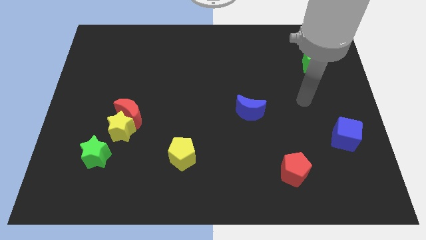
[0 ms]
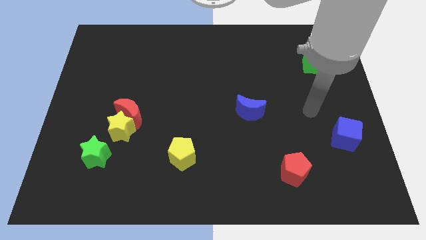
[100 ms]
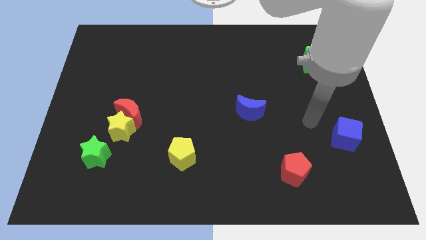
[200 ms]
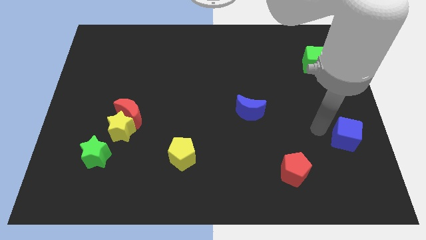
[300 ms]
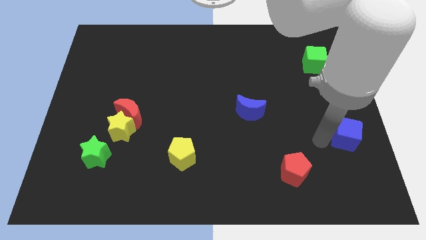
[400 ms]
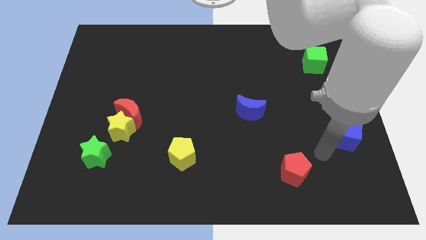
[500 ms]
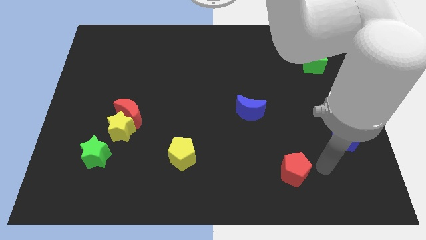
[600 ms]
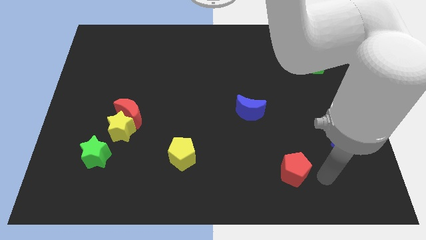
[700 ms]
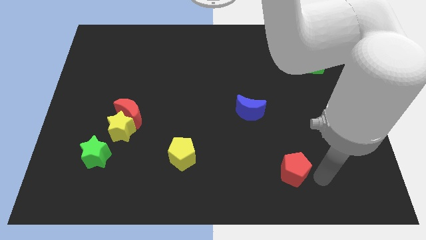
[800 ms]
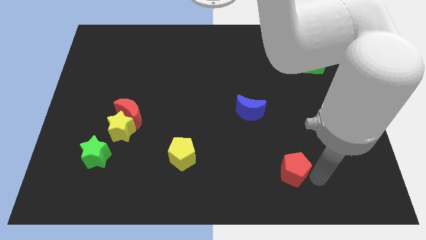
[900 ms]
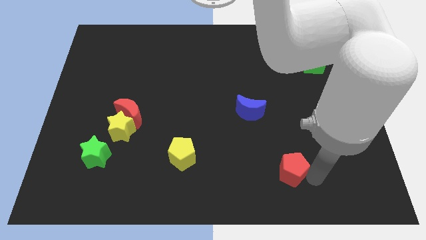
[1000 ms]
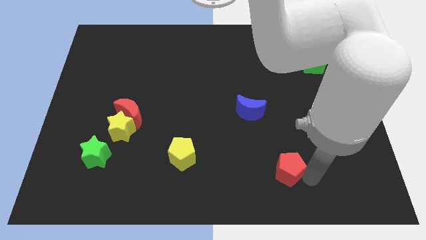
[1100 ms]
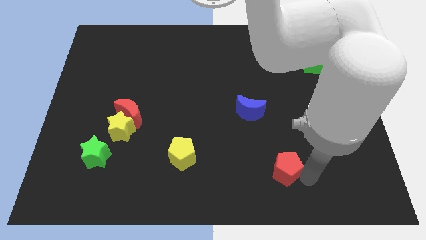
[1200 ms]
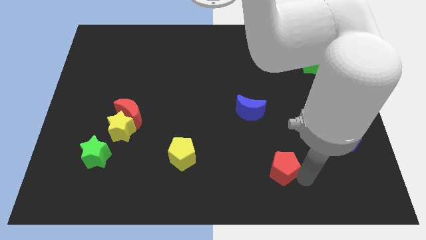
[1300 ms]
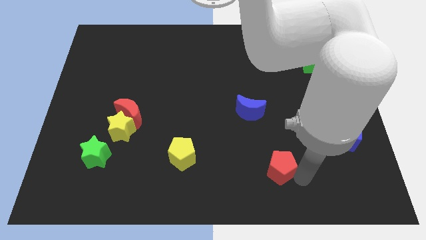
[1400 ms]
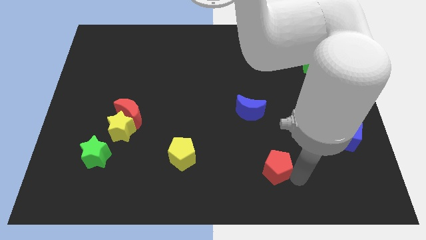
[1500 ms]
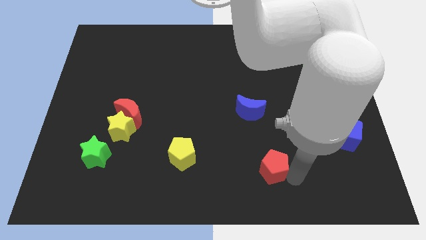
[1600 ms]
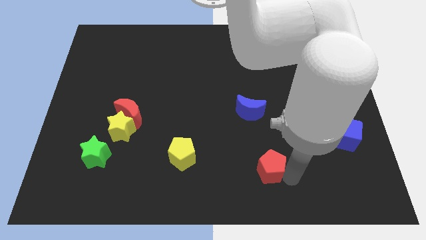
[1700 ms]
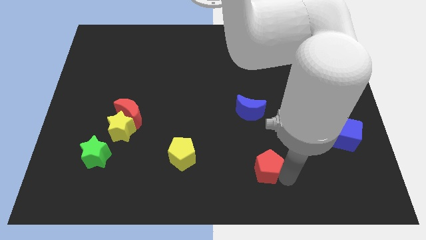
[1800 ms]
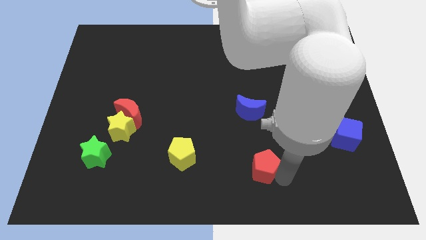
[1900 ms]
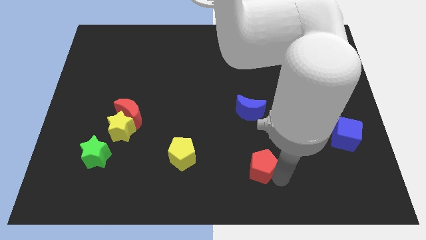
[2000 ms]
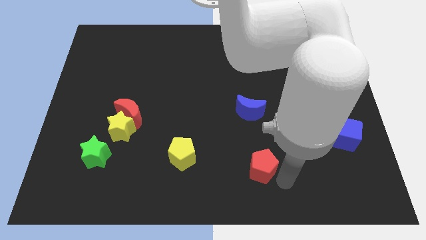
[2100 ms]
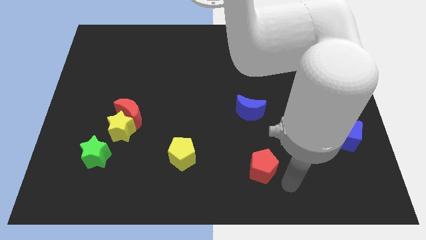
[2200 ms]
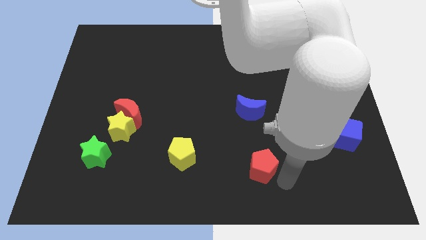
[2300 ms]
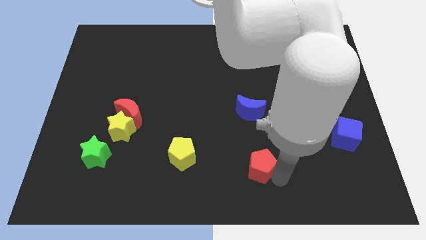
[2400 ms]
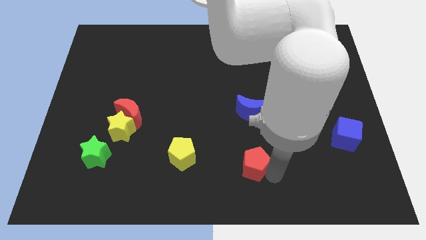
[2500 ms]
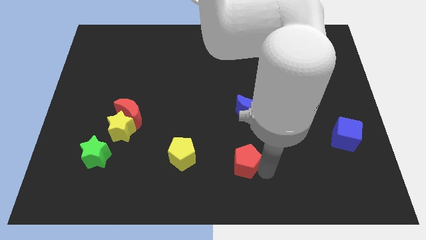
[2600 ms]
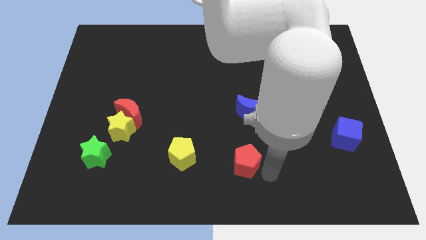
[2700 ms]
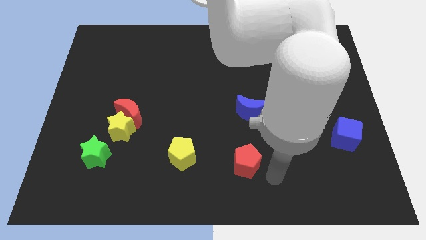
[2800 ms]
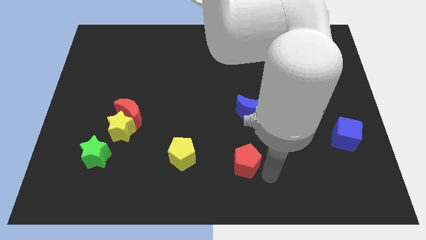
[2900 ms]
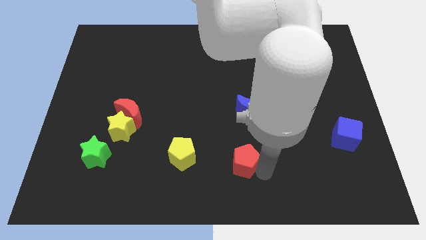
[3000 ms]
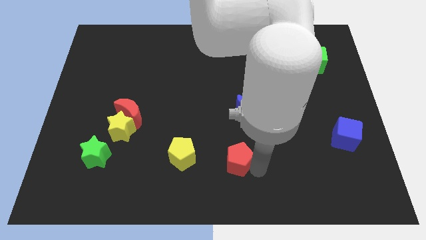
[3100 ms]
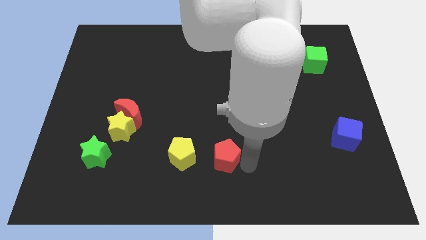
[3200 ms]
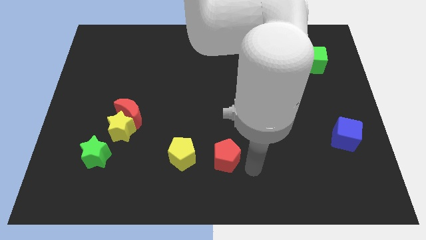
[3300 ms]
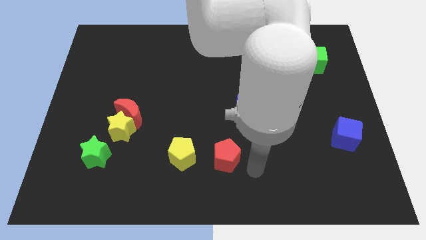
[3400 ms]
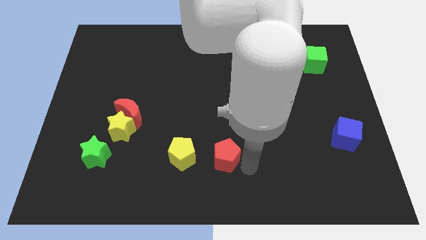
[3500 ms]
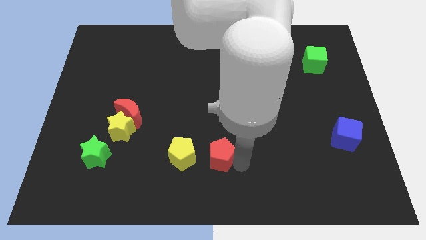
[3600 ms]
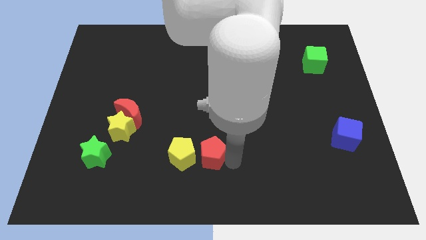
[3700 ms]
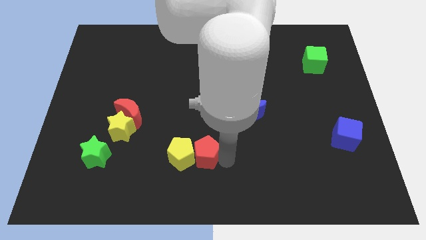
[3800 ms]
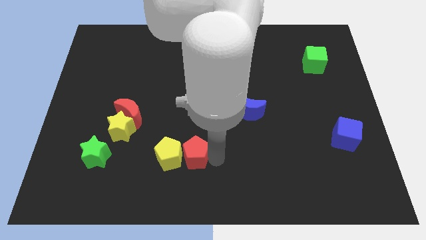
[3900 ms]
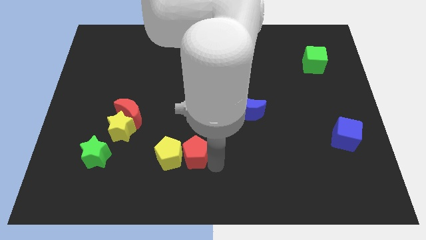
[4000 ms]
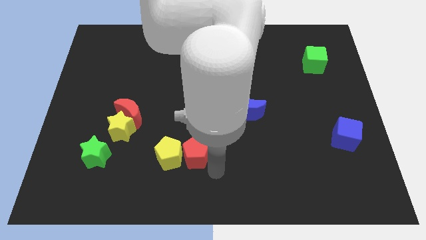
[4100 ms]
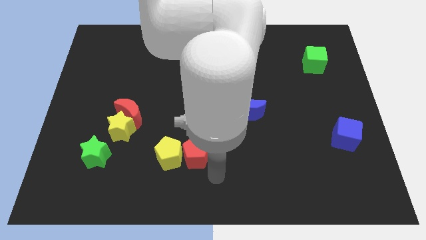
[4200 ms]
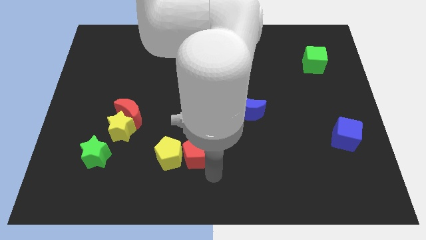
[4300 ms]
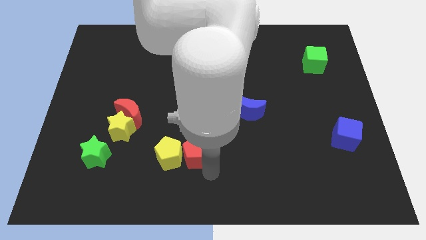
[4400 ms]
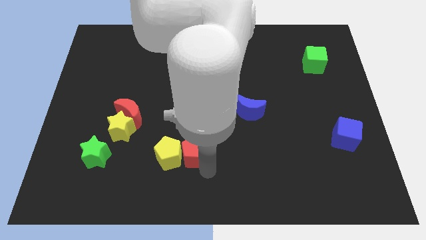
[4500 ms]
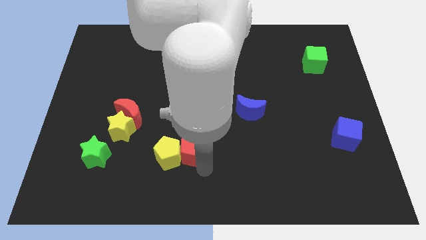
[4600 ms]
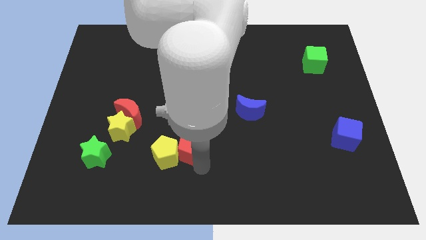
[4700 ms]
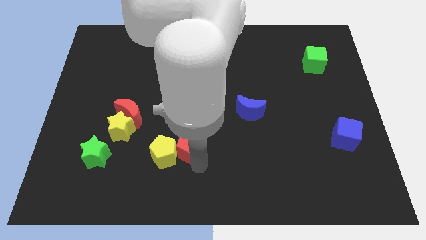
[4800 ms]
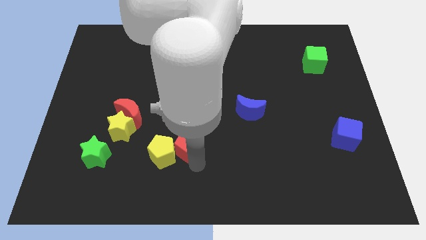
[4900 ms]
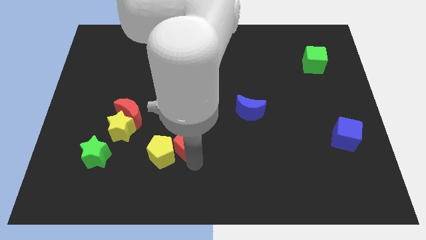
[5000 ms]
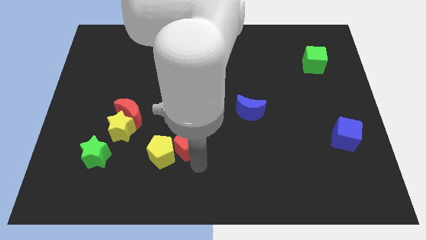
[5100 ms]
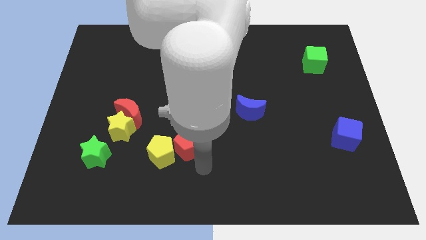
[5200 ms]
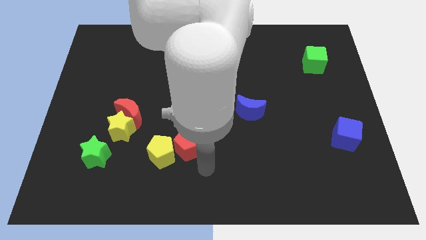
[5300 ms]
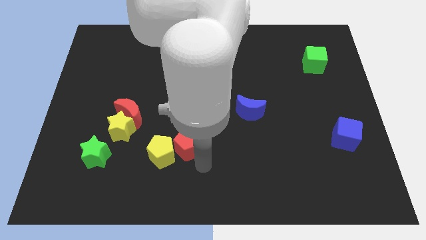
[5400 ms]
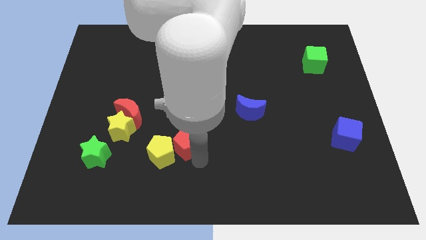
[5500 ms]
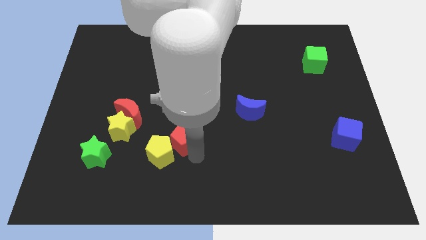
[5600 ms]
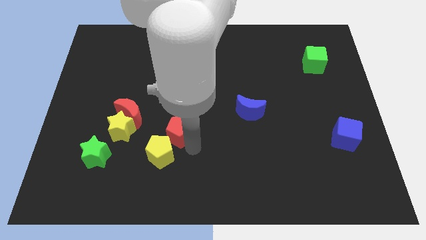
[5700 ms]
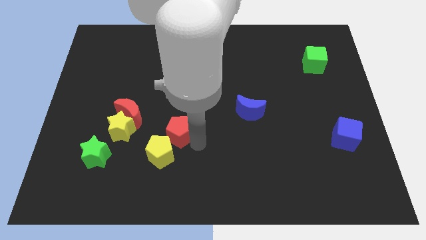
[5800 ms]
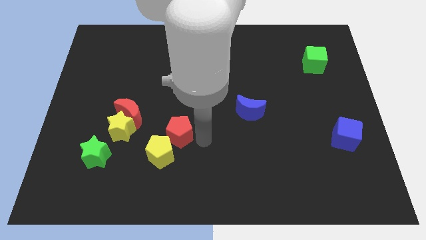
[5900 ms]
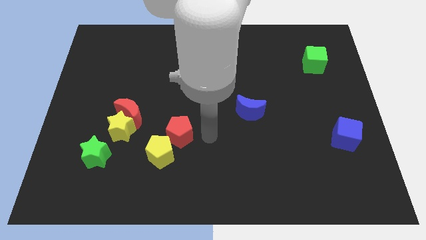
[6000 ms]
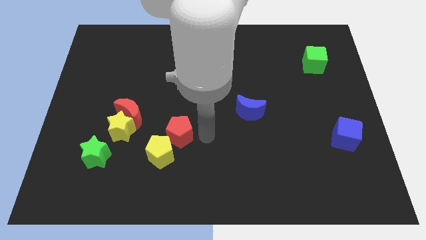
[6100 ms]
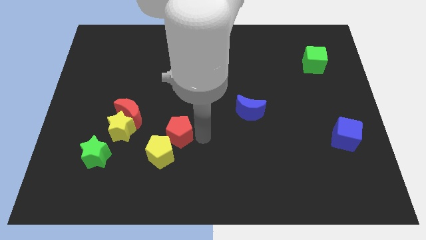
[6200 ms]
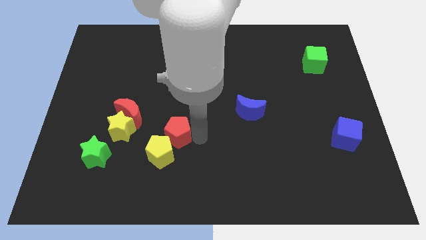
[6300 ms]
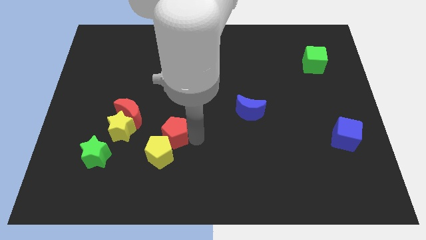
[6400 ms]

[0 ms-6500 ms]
slide the red pentagon diagonally down and to the right of the red moon

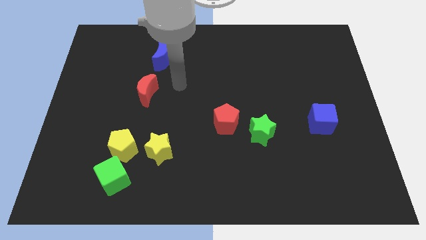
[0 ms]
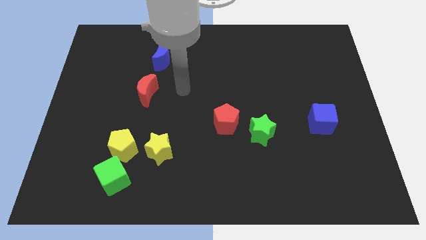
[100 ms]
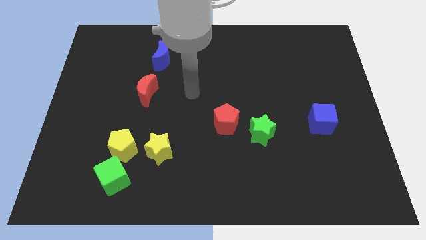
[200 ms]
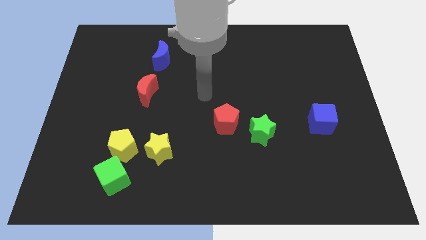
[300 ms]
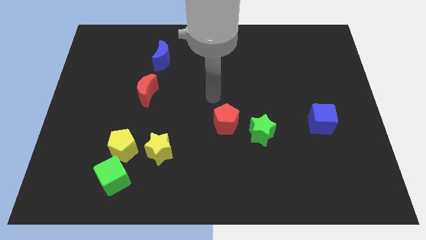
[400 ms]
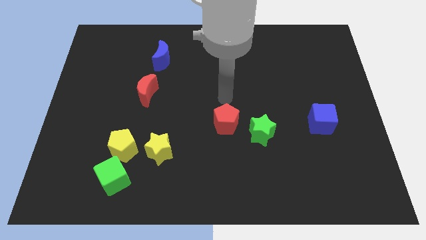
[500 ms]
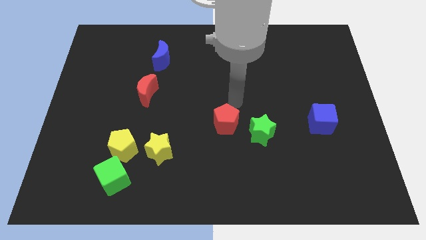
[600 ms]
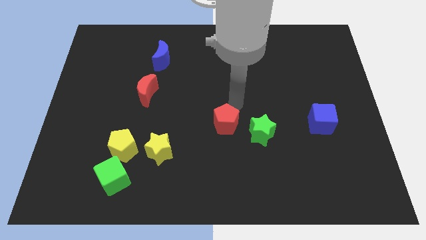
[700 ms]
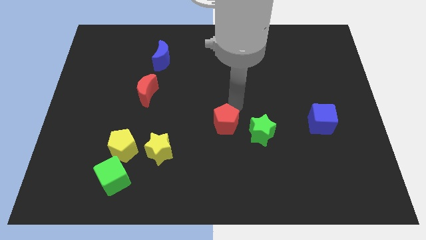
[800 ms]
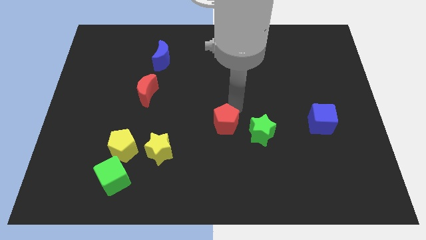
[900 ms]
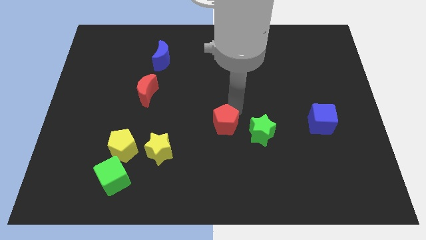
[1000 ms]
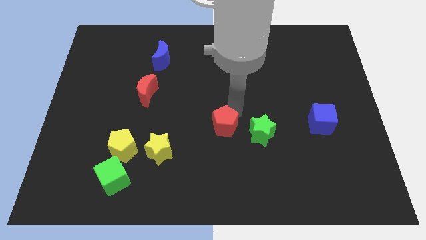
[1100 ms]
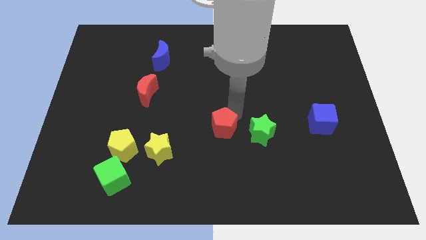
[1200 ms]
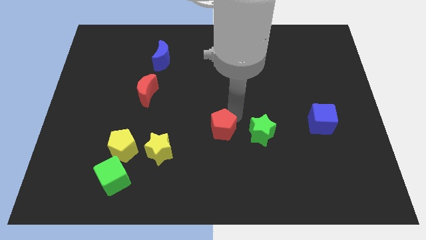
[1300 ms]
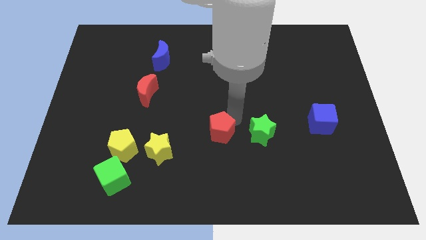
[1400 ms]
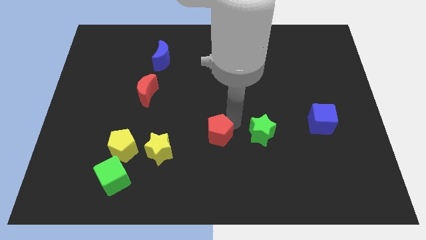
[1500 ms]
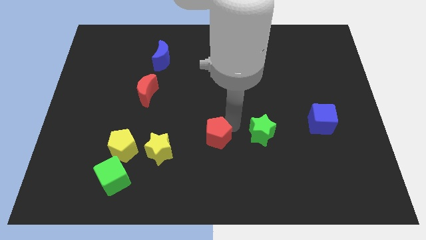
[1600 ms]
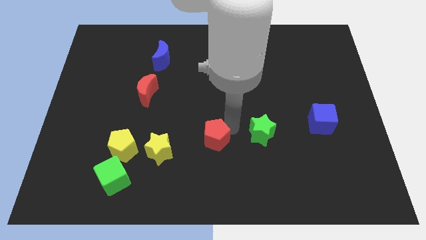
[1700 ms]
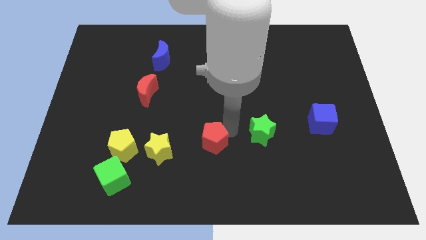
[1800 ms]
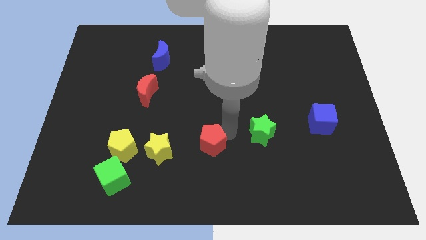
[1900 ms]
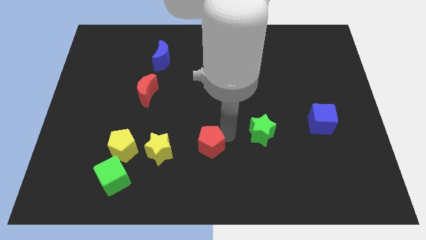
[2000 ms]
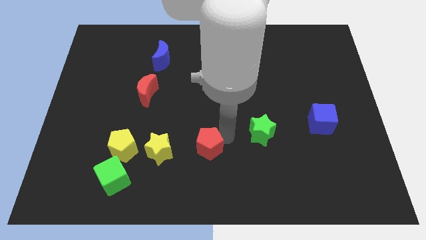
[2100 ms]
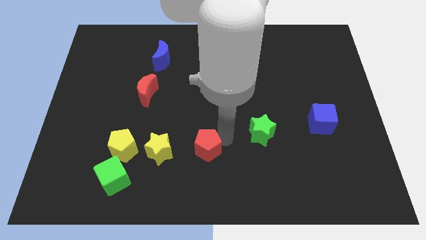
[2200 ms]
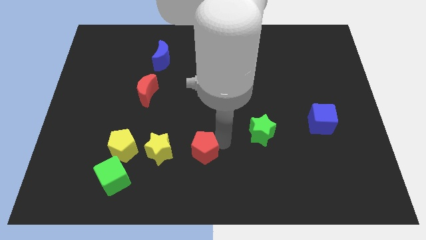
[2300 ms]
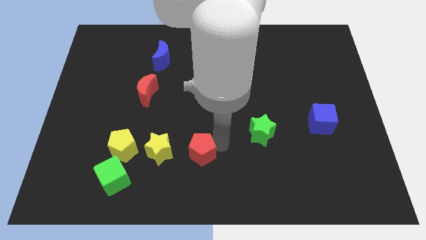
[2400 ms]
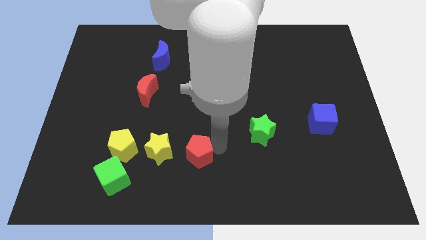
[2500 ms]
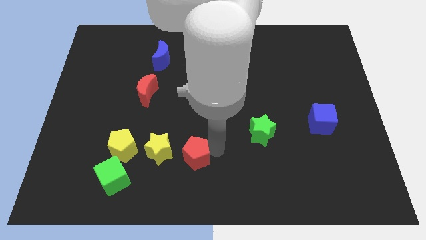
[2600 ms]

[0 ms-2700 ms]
move the red pentagon to the bottom right side of the yellow star
